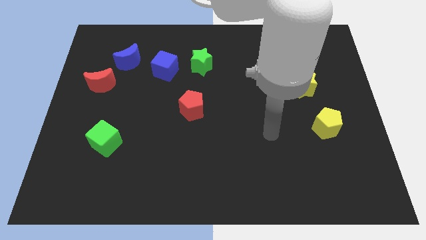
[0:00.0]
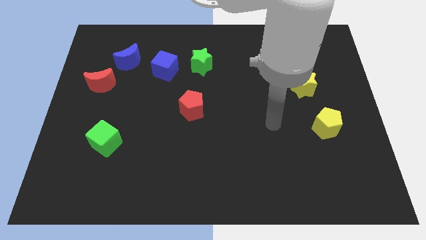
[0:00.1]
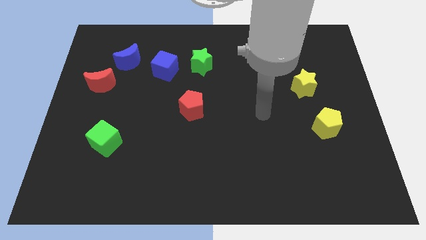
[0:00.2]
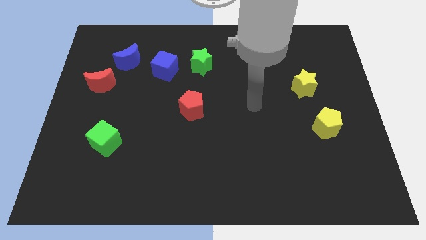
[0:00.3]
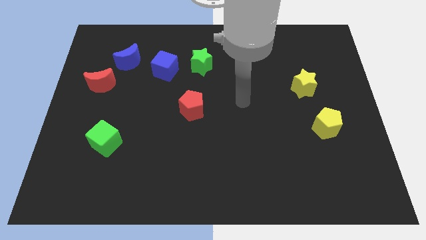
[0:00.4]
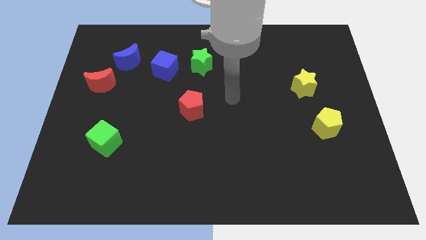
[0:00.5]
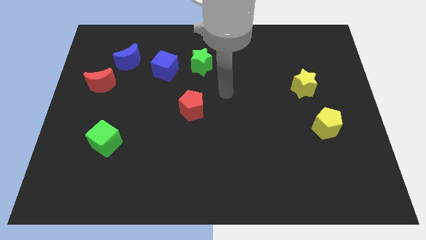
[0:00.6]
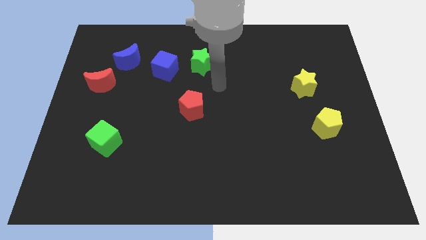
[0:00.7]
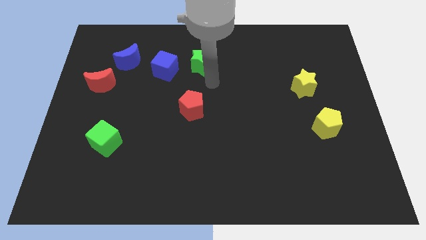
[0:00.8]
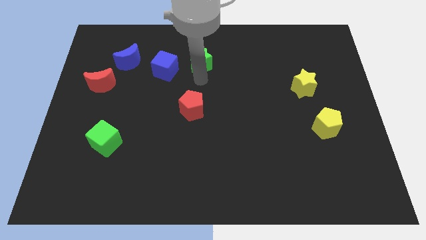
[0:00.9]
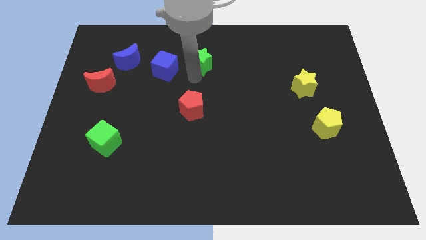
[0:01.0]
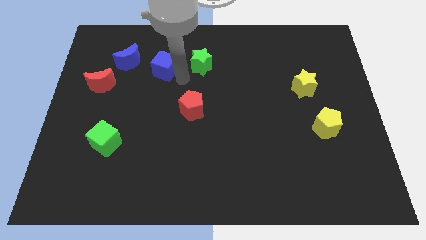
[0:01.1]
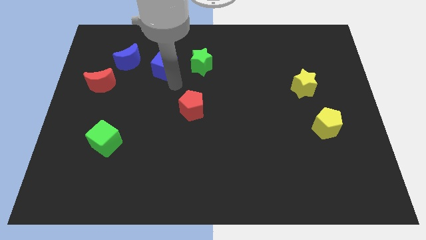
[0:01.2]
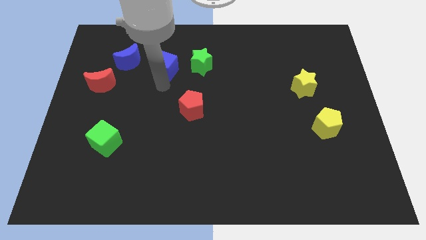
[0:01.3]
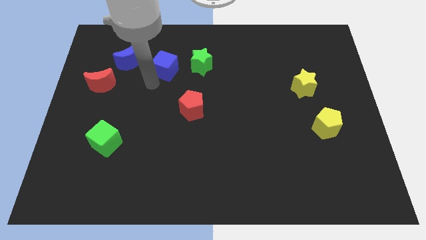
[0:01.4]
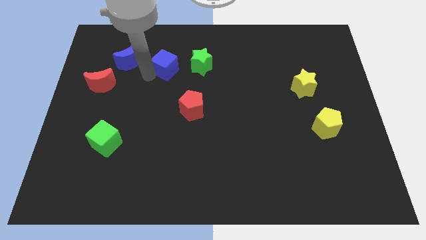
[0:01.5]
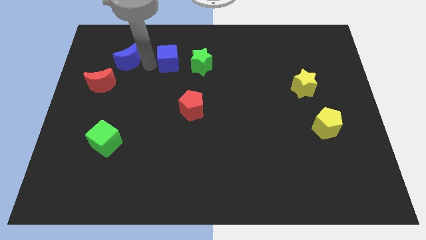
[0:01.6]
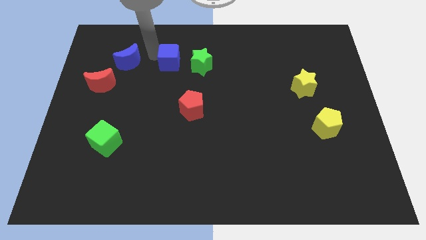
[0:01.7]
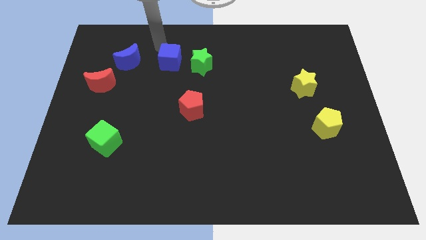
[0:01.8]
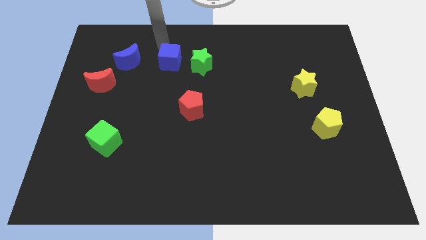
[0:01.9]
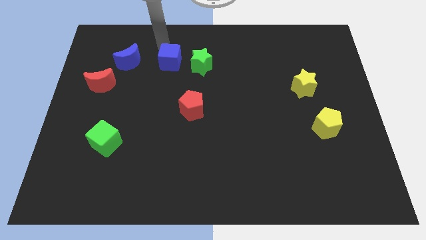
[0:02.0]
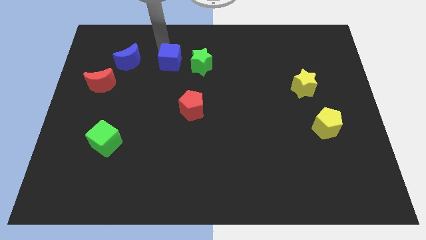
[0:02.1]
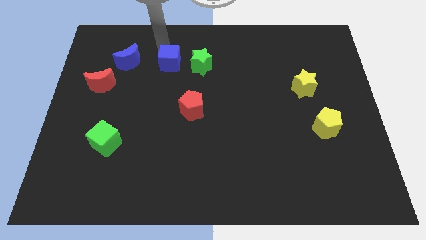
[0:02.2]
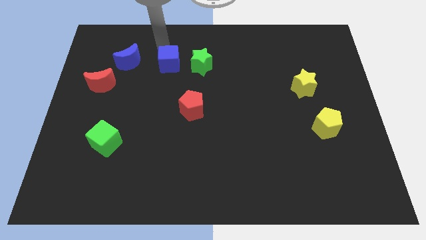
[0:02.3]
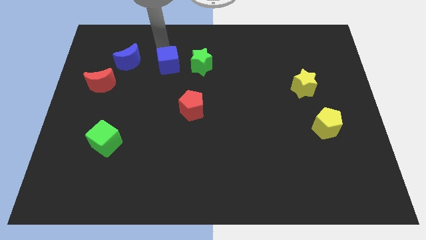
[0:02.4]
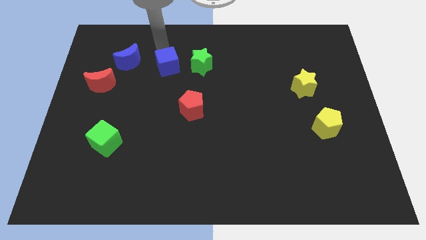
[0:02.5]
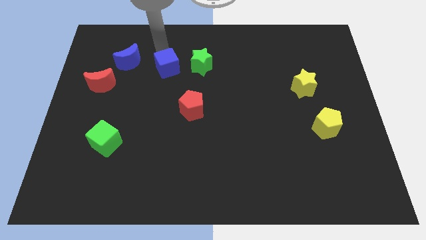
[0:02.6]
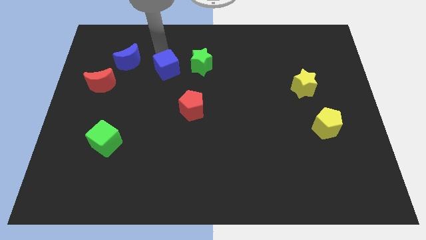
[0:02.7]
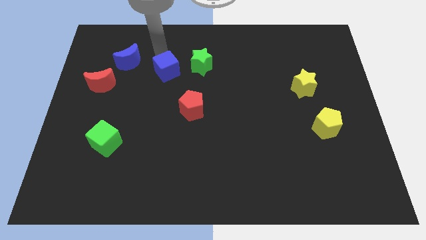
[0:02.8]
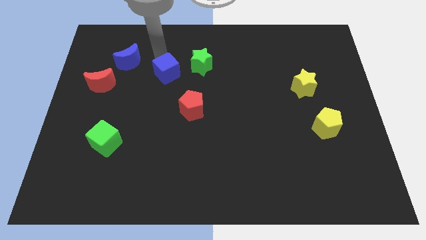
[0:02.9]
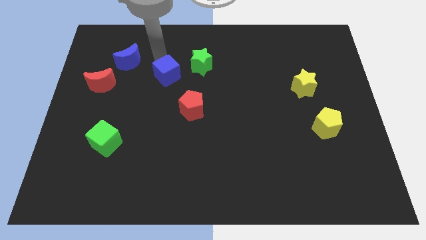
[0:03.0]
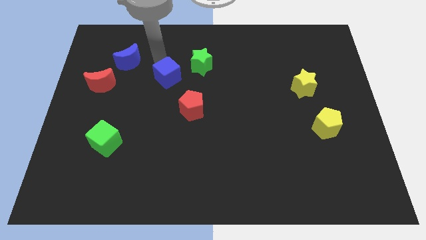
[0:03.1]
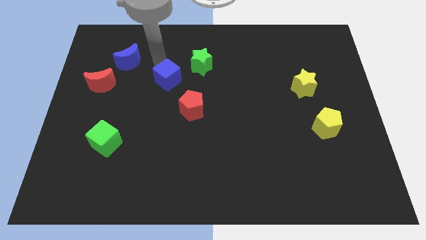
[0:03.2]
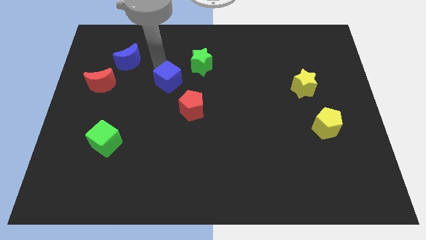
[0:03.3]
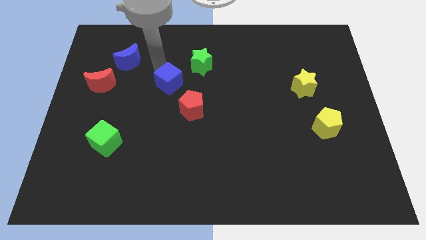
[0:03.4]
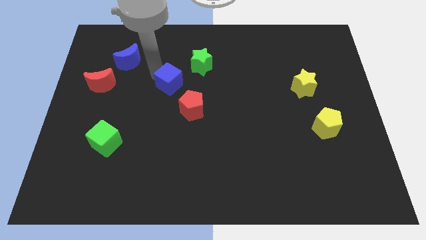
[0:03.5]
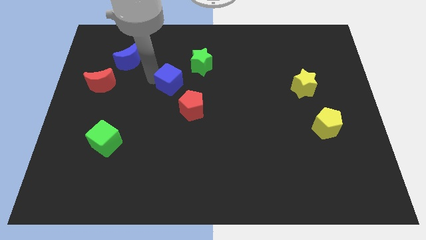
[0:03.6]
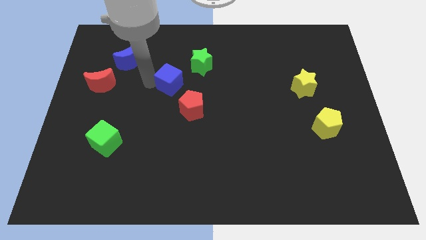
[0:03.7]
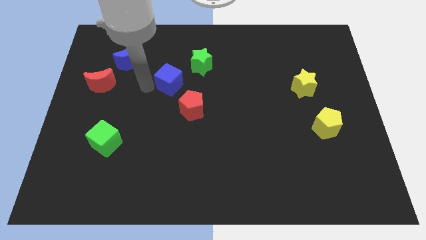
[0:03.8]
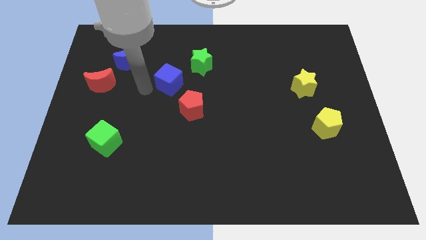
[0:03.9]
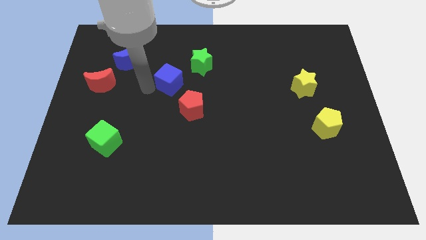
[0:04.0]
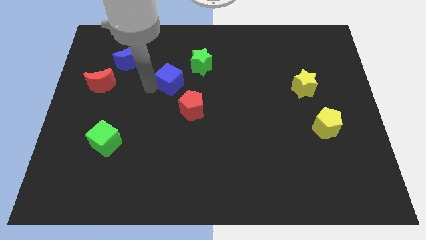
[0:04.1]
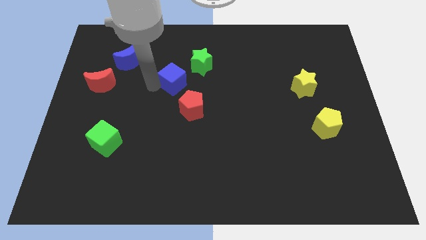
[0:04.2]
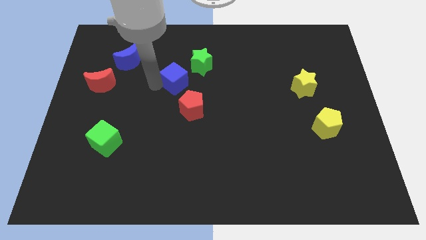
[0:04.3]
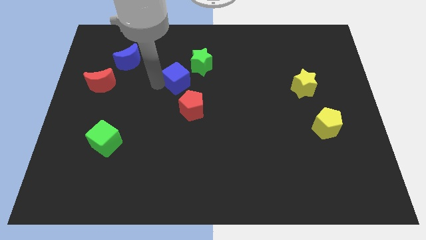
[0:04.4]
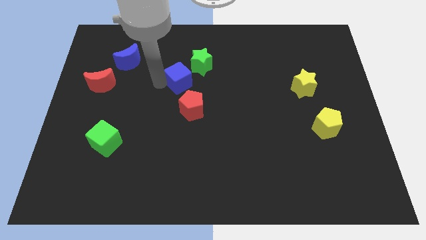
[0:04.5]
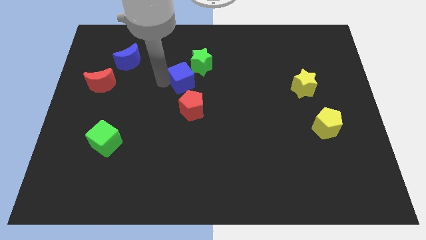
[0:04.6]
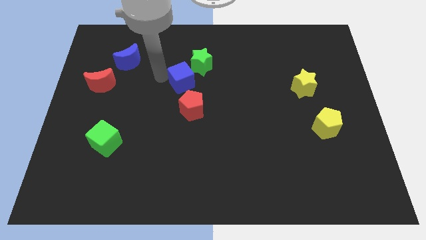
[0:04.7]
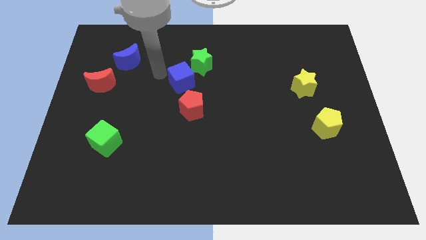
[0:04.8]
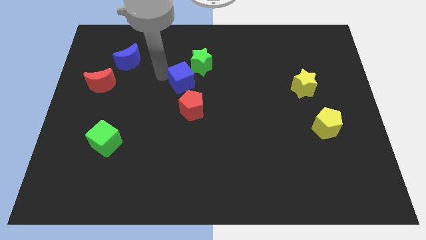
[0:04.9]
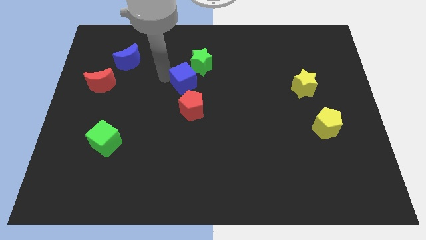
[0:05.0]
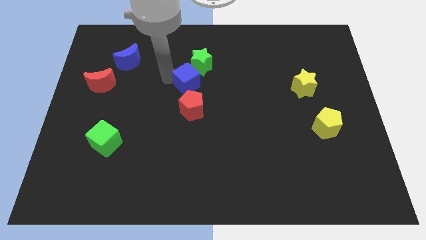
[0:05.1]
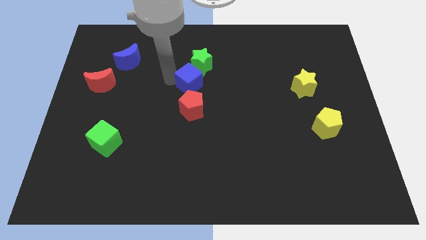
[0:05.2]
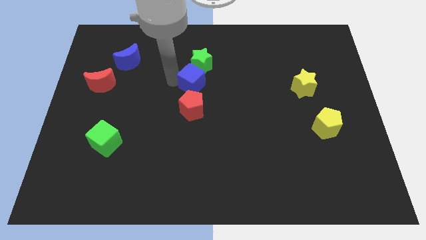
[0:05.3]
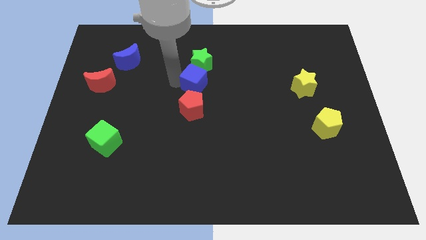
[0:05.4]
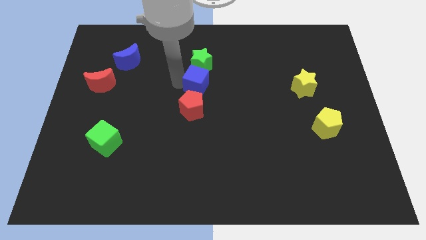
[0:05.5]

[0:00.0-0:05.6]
push the blue cube to the top right of the red pentagon

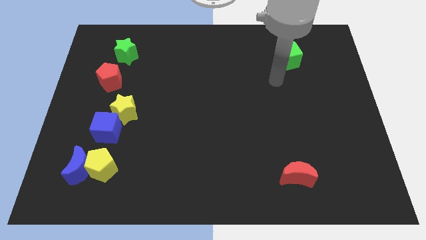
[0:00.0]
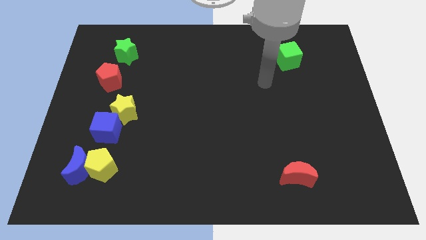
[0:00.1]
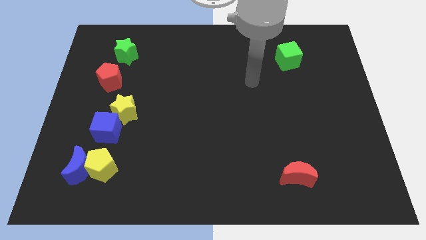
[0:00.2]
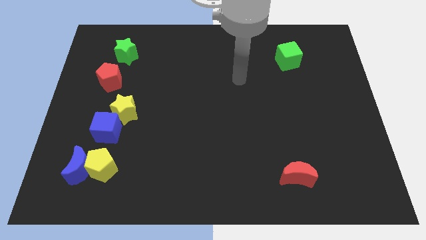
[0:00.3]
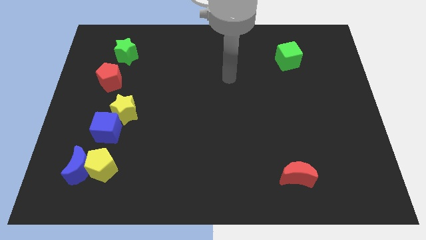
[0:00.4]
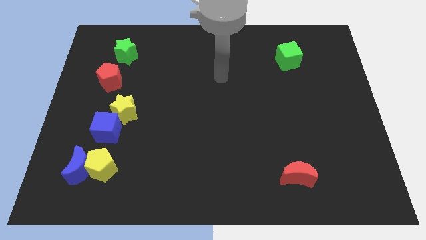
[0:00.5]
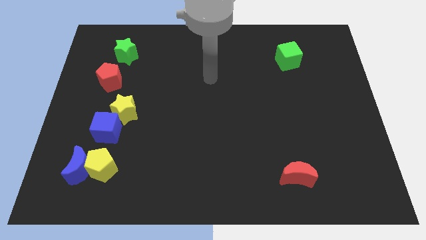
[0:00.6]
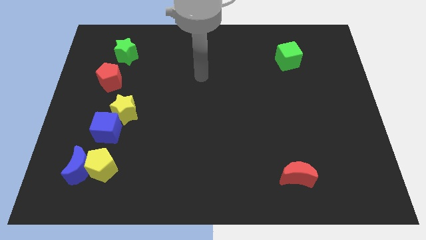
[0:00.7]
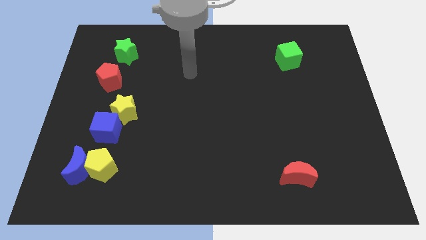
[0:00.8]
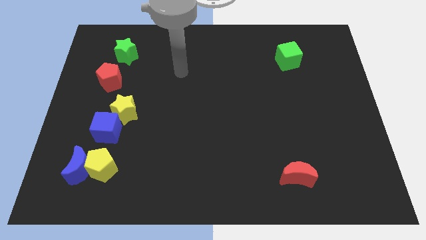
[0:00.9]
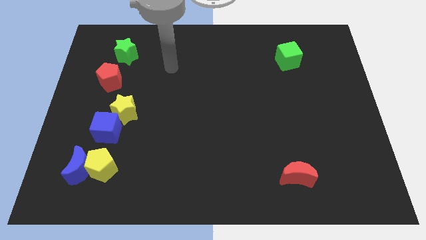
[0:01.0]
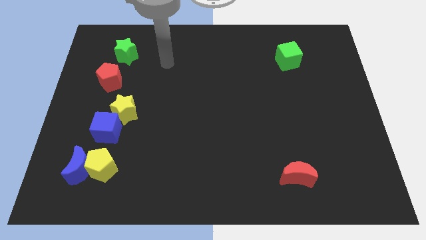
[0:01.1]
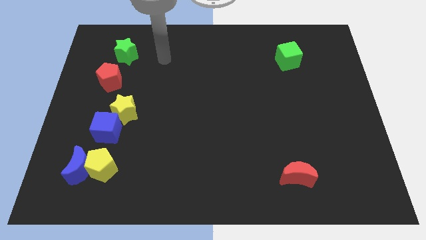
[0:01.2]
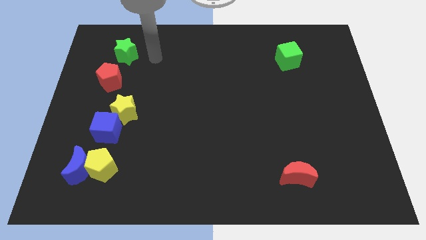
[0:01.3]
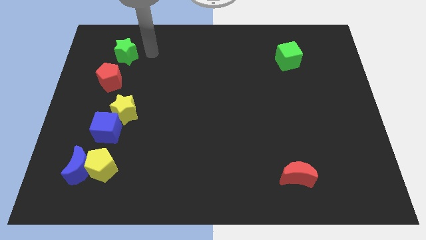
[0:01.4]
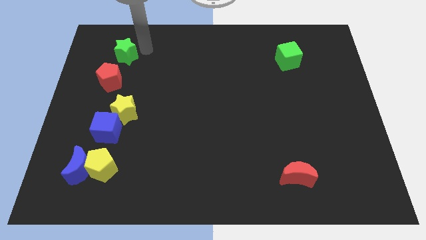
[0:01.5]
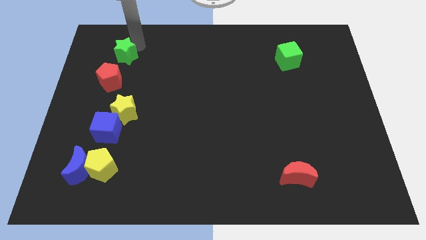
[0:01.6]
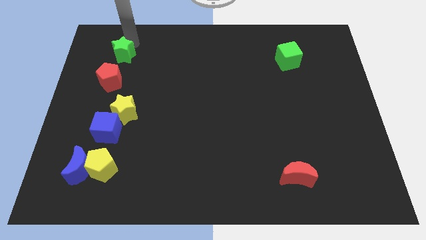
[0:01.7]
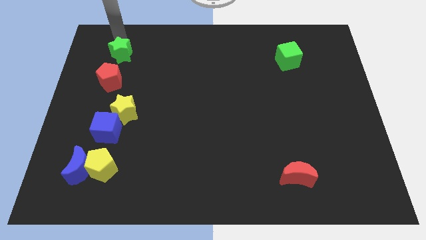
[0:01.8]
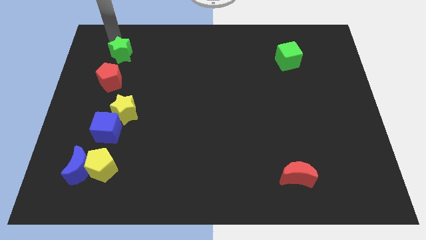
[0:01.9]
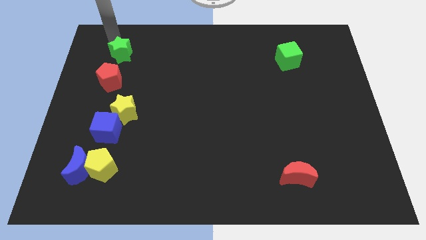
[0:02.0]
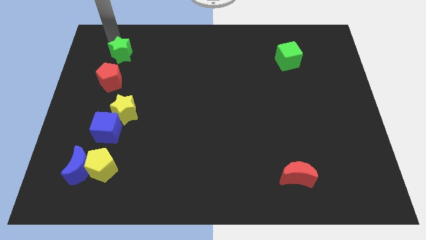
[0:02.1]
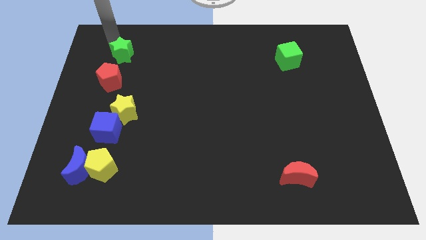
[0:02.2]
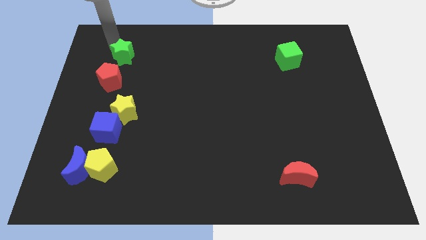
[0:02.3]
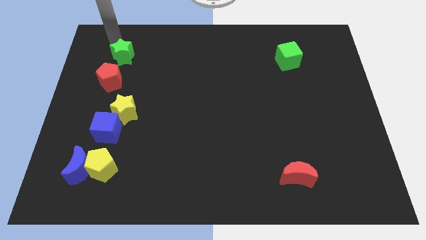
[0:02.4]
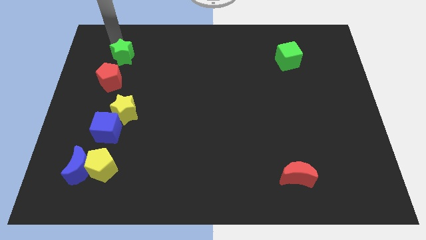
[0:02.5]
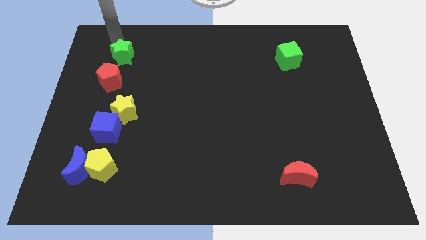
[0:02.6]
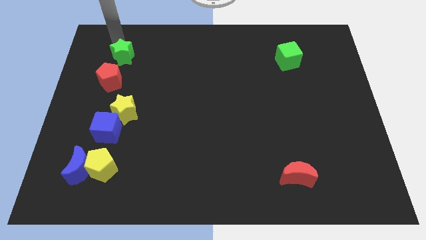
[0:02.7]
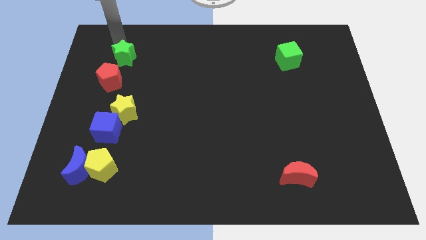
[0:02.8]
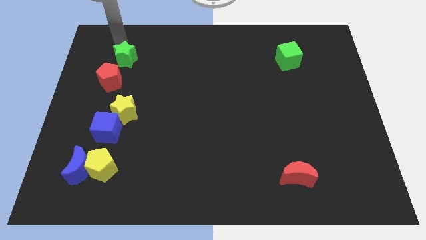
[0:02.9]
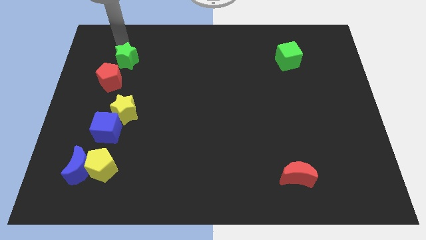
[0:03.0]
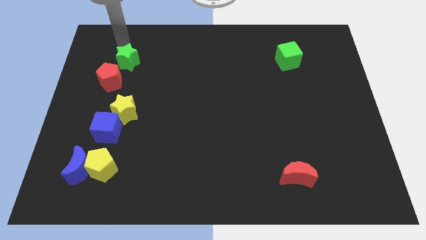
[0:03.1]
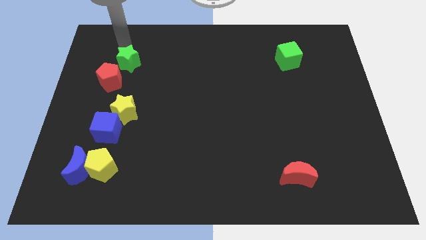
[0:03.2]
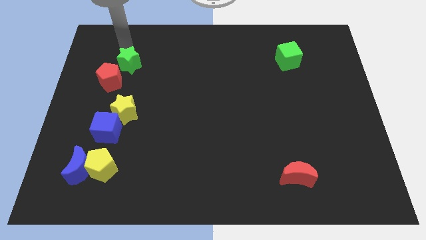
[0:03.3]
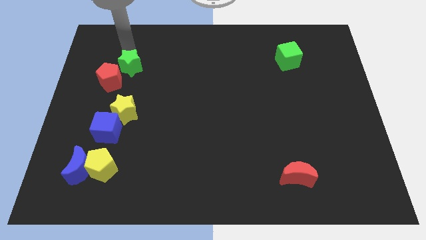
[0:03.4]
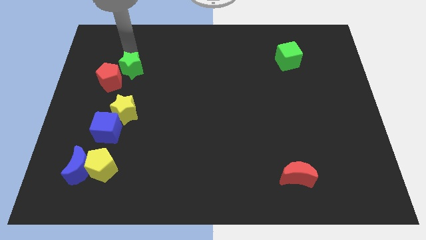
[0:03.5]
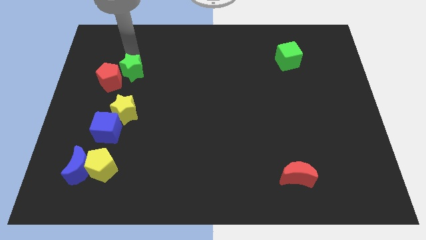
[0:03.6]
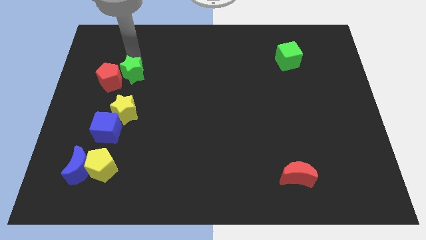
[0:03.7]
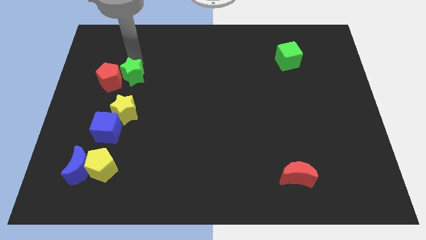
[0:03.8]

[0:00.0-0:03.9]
push the green star diagonally down and to the right of the red pentagon
